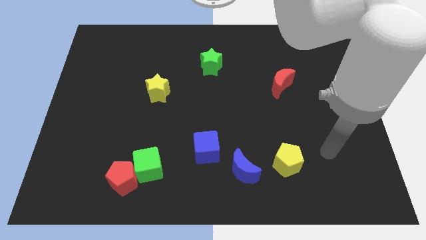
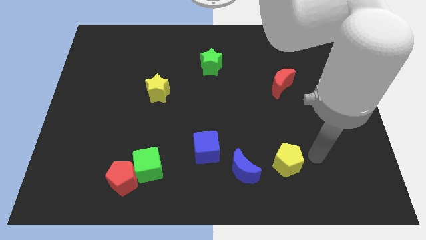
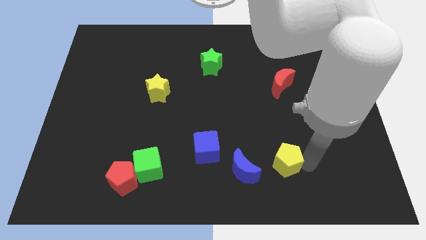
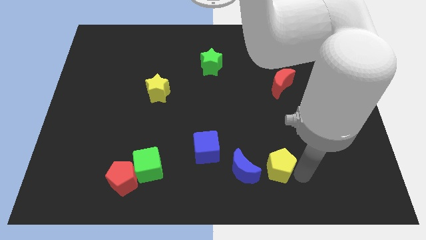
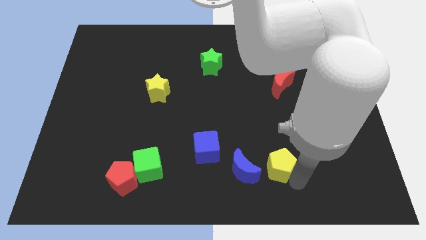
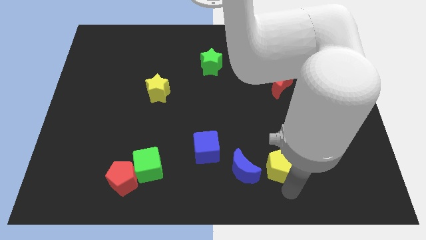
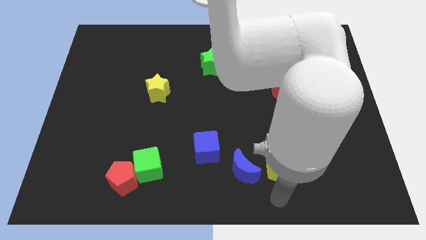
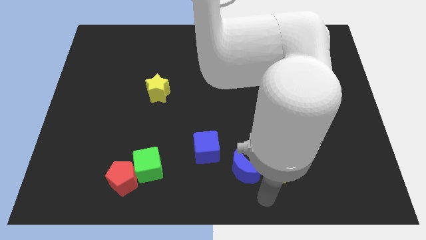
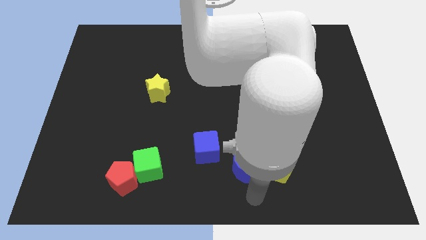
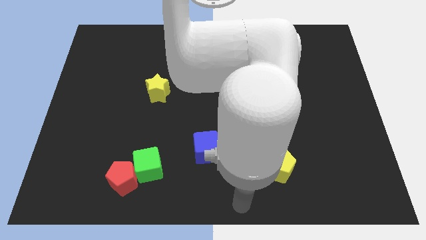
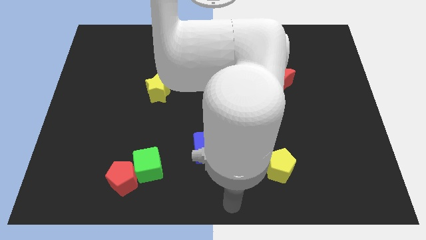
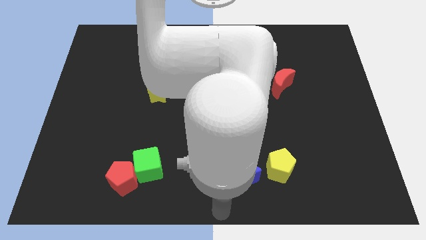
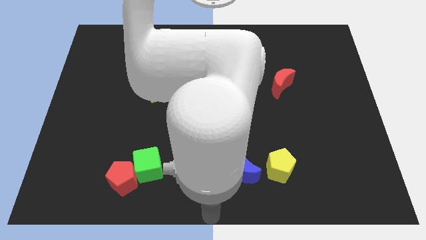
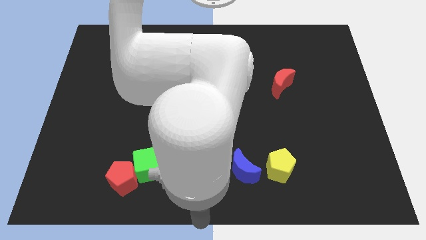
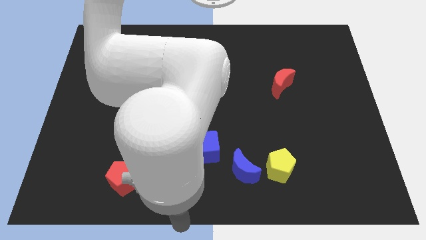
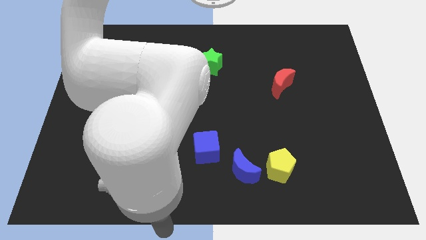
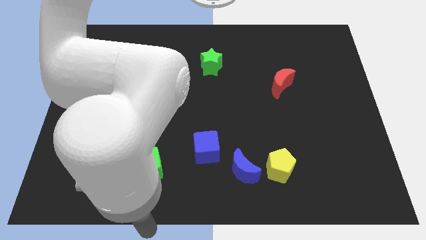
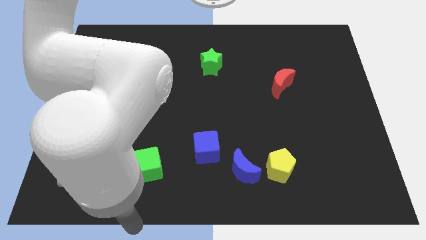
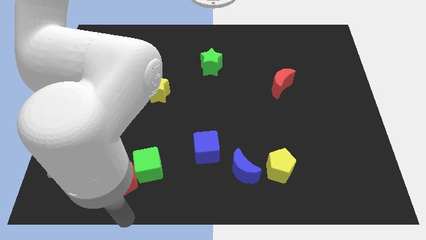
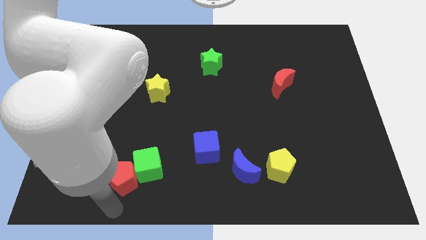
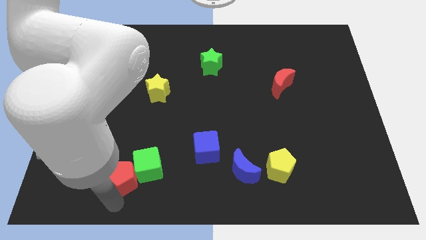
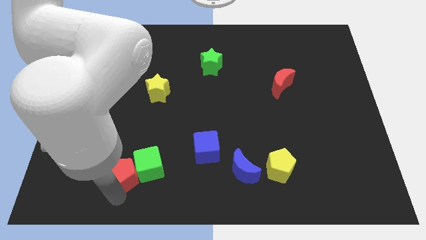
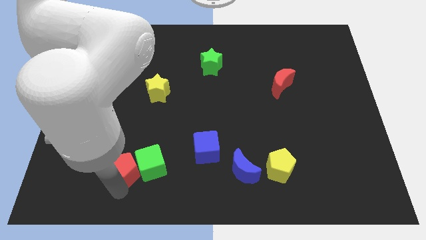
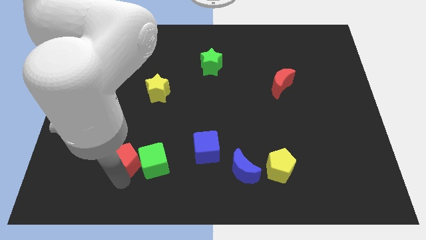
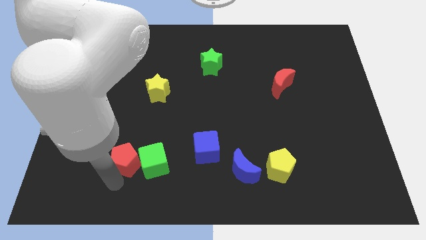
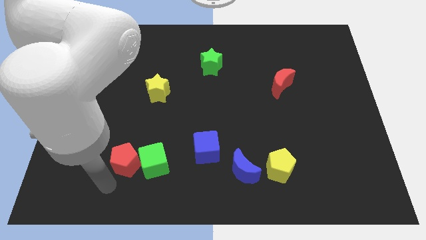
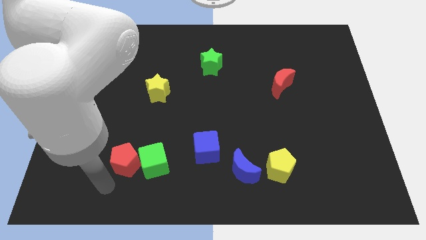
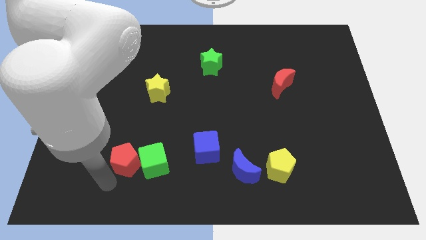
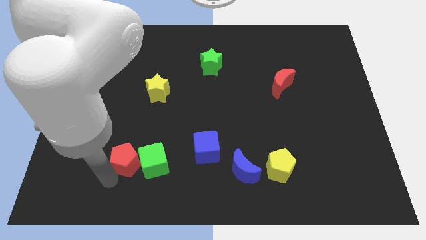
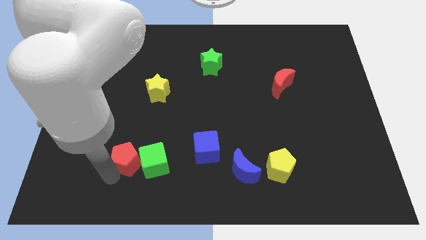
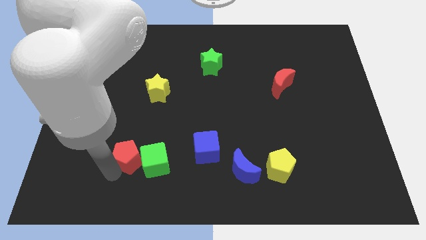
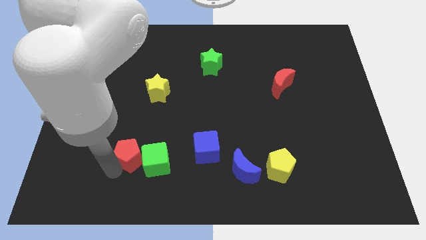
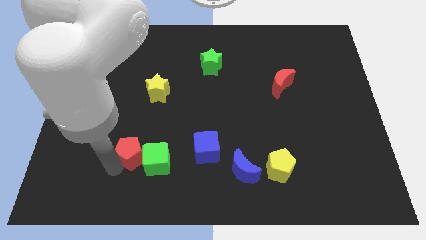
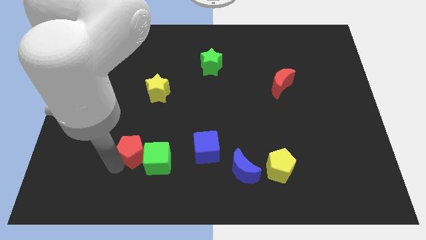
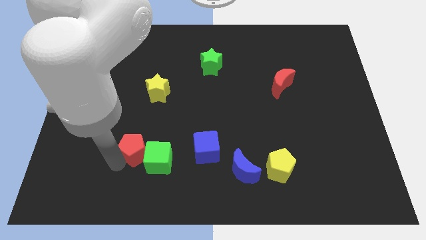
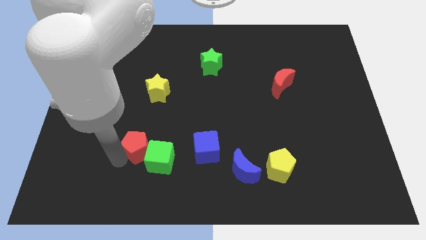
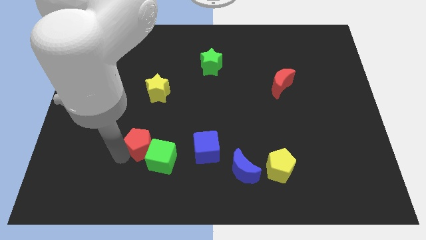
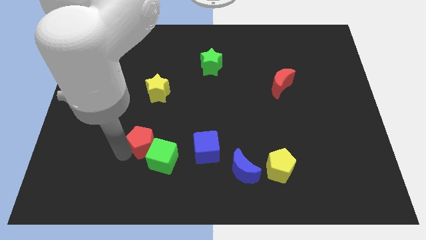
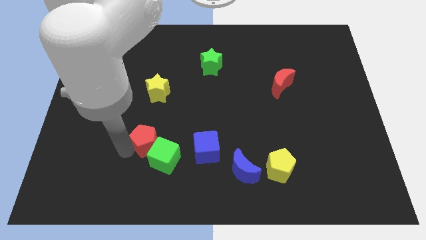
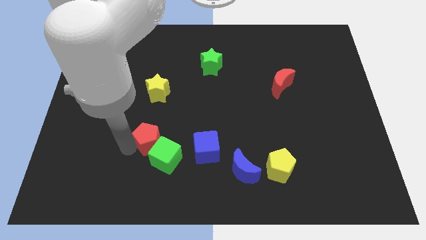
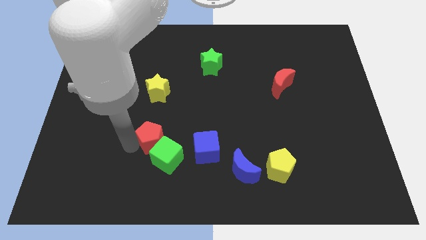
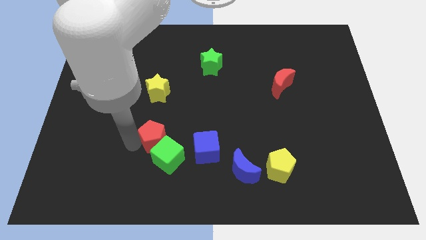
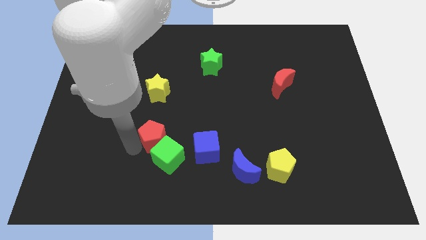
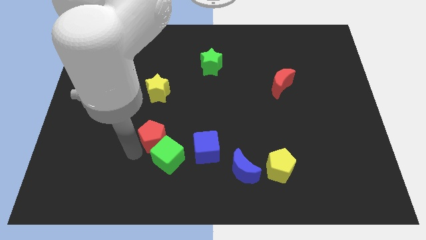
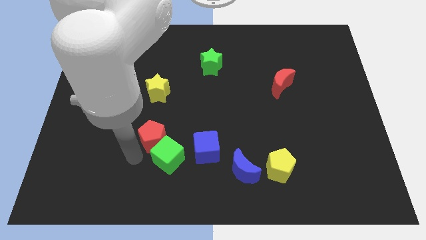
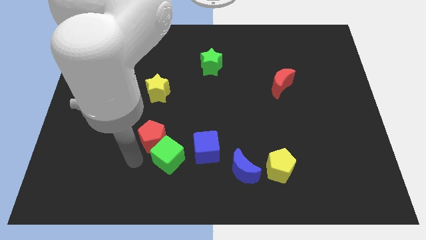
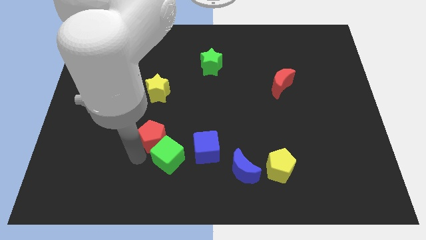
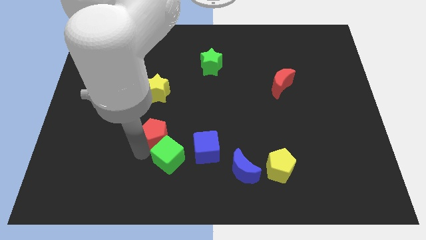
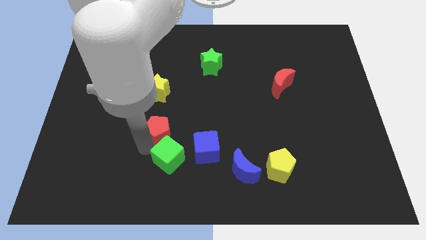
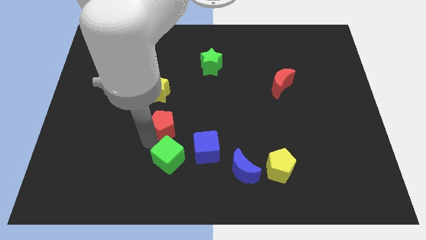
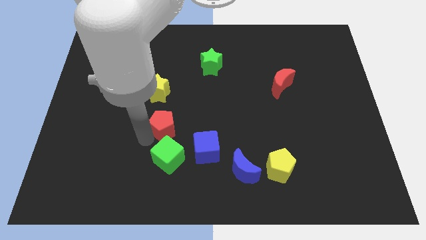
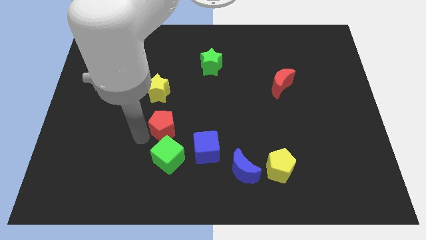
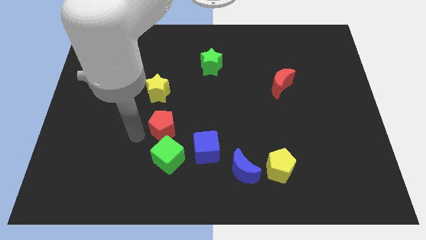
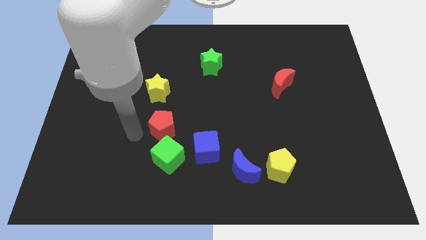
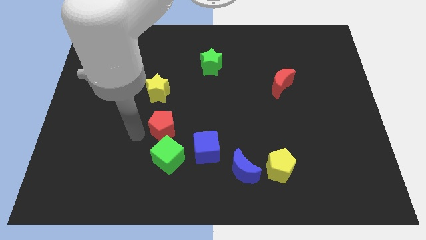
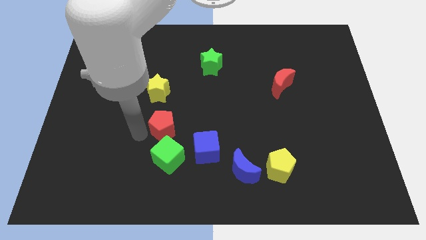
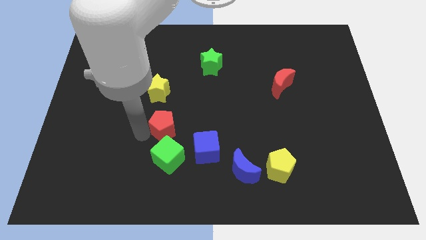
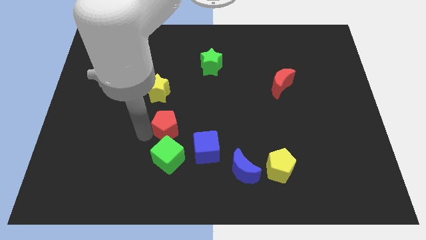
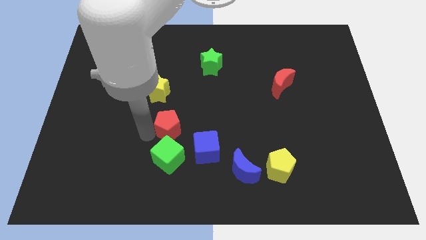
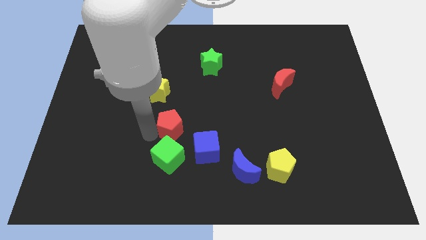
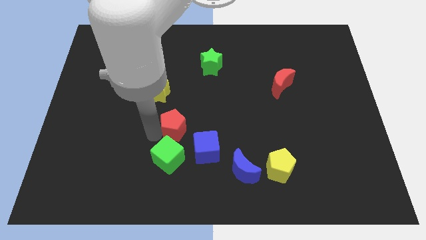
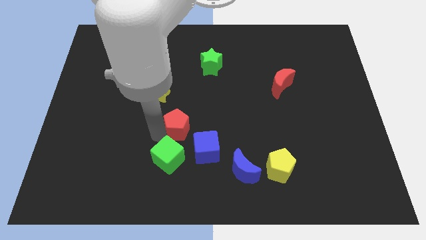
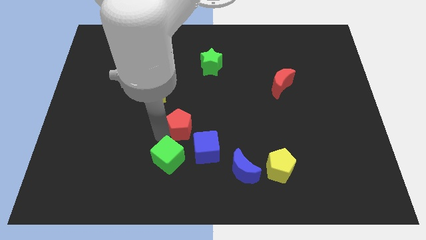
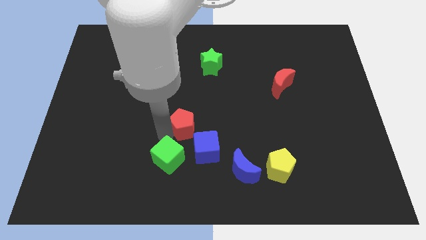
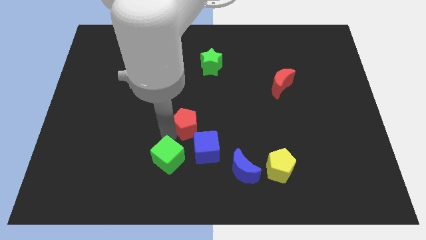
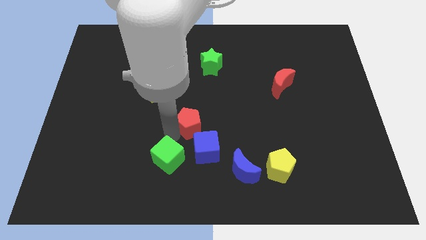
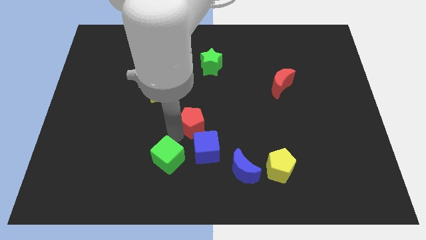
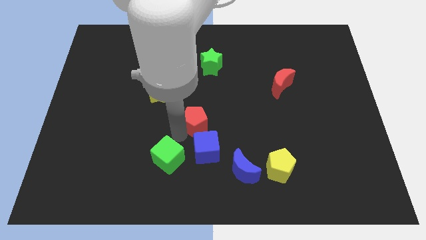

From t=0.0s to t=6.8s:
slide the red pentagon upwards and to the right

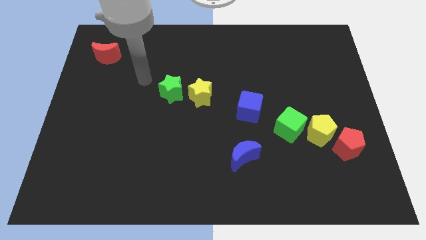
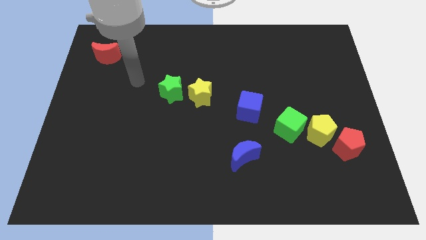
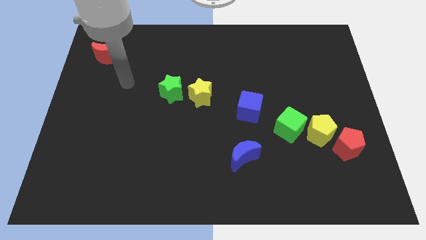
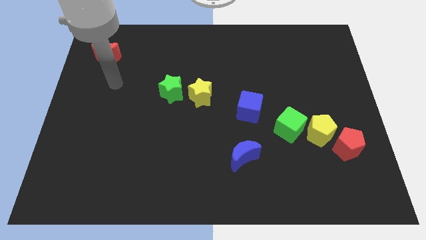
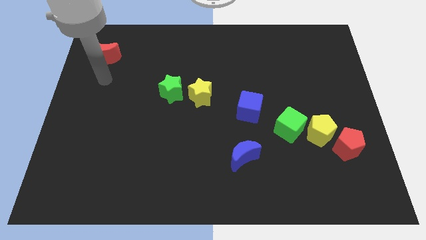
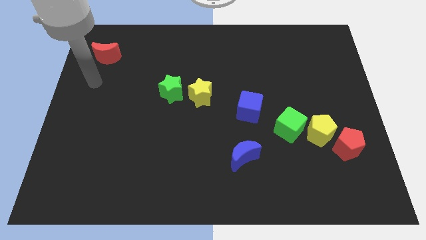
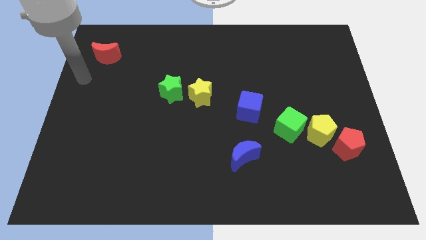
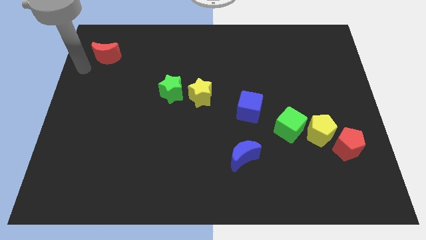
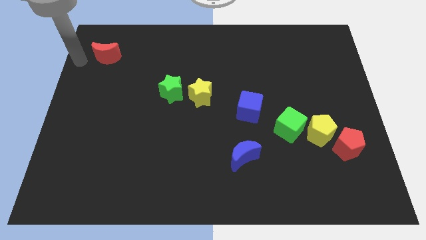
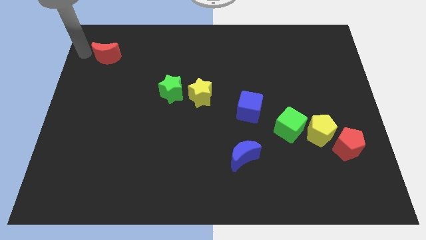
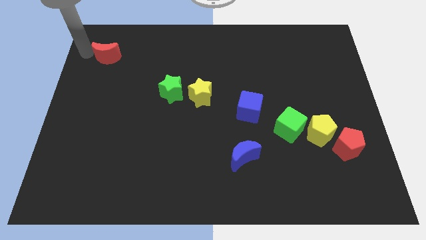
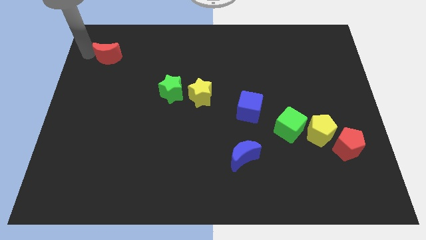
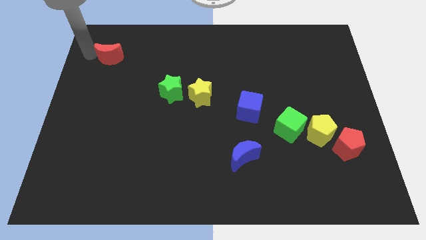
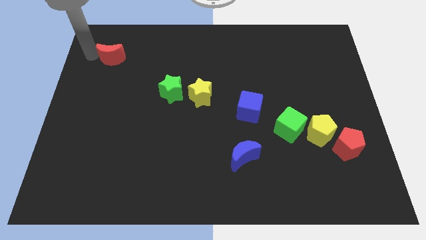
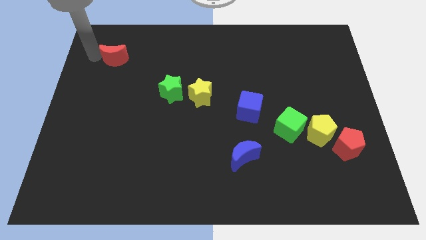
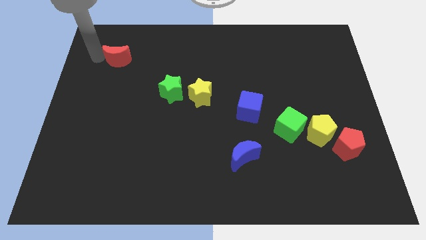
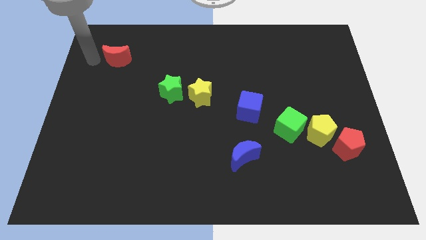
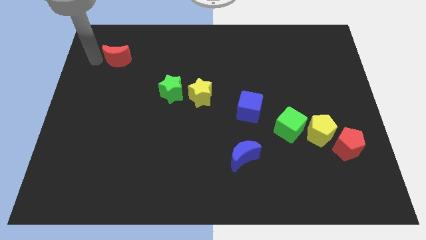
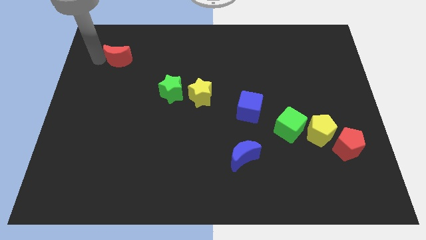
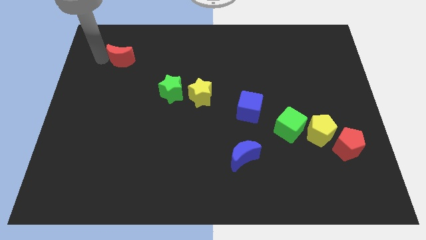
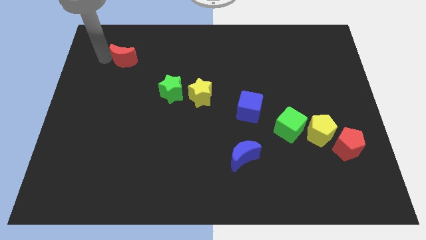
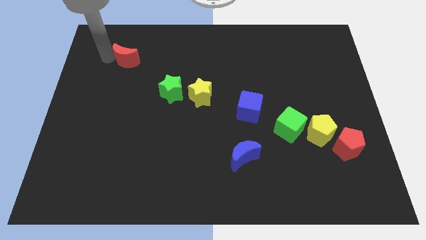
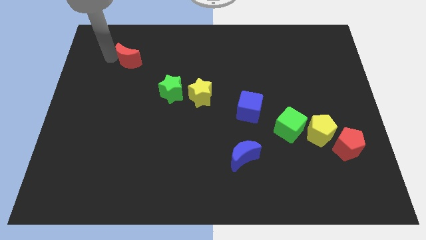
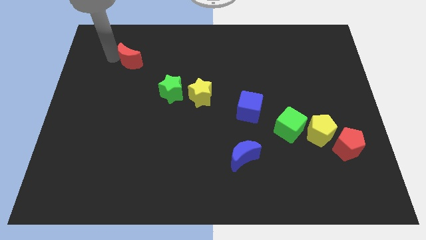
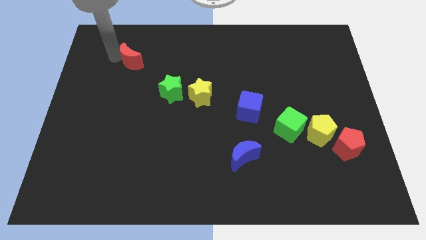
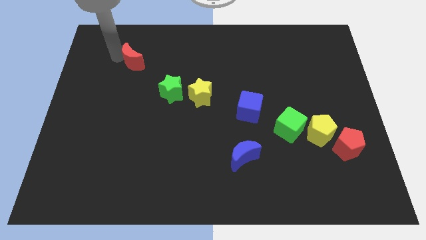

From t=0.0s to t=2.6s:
push the red moon to the right slightly
